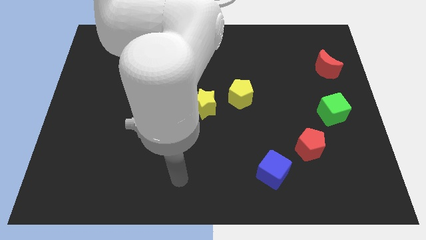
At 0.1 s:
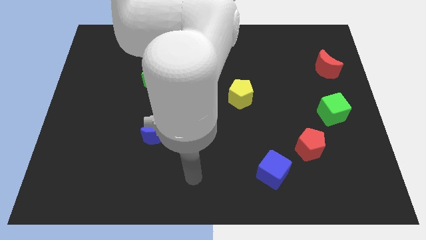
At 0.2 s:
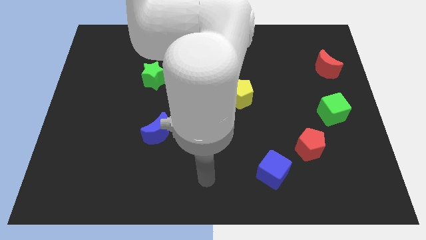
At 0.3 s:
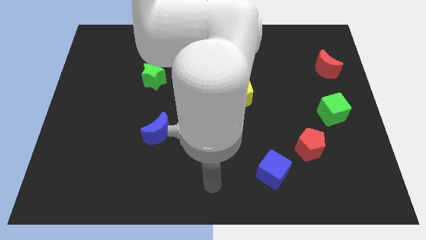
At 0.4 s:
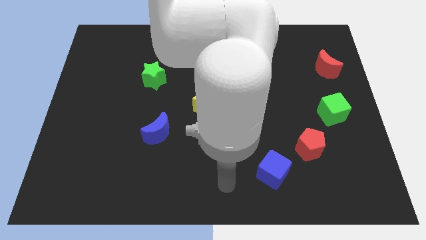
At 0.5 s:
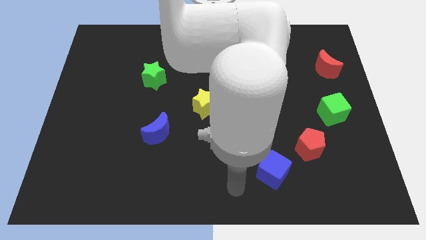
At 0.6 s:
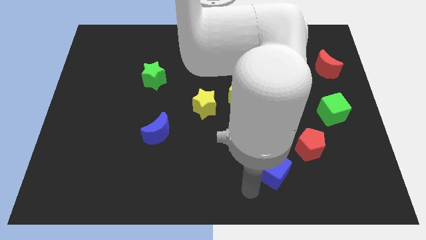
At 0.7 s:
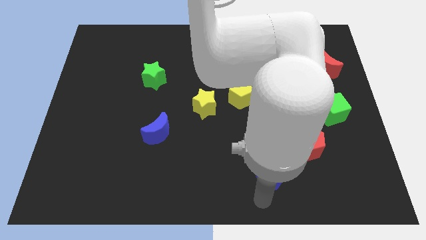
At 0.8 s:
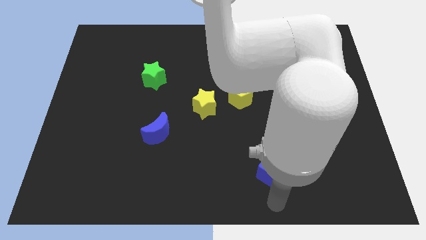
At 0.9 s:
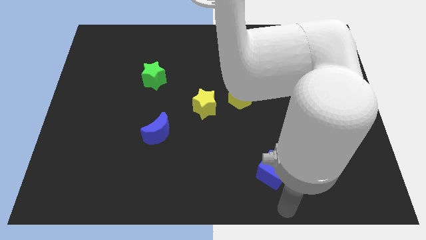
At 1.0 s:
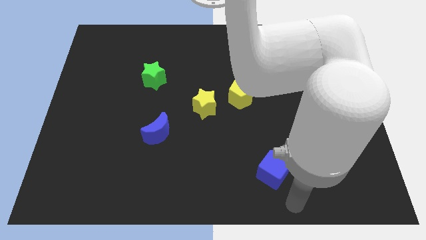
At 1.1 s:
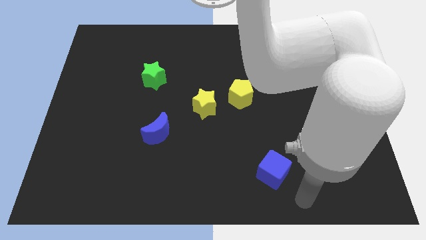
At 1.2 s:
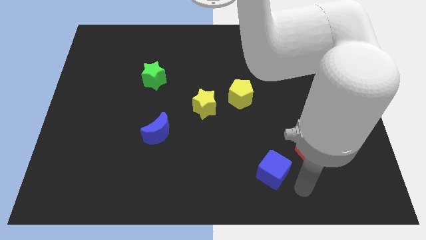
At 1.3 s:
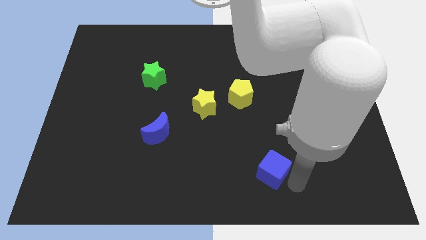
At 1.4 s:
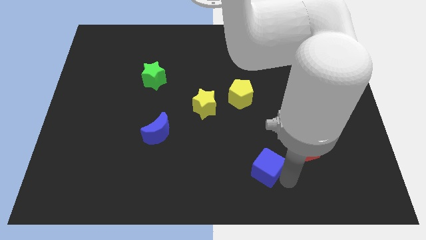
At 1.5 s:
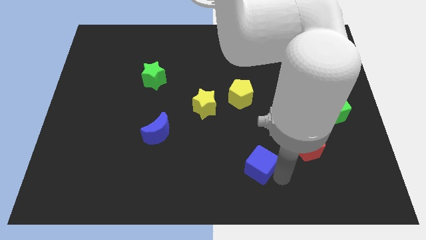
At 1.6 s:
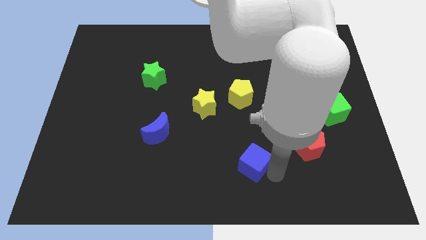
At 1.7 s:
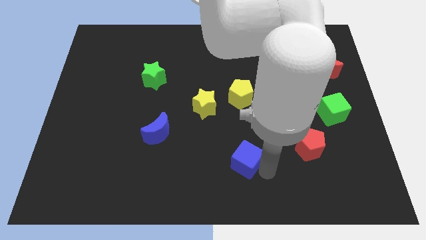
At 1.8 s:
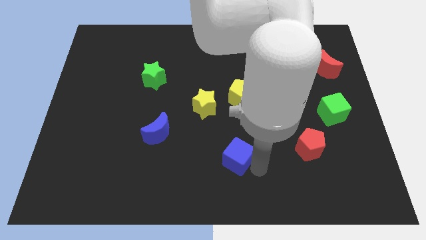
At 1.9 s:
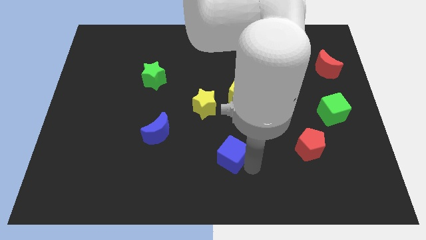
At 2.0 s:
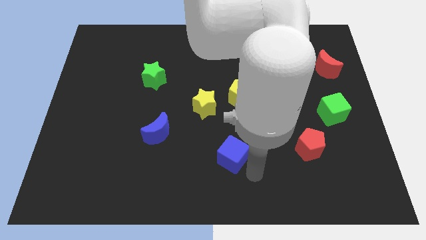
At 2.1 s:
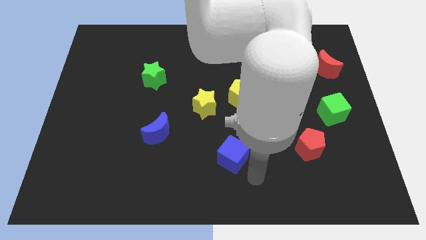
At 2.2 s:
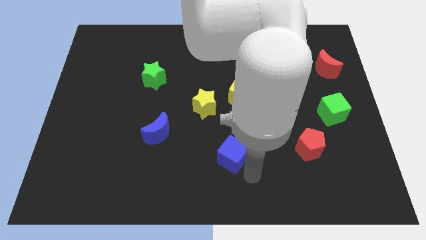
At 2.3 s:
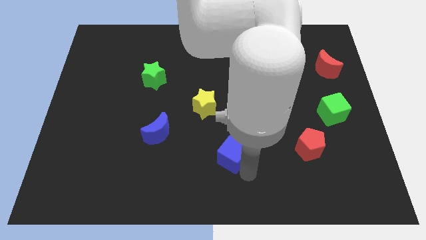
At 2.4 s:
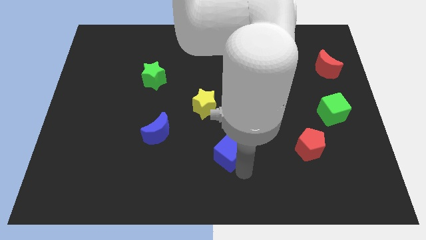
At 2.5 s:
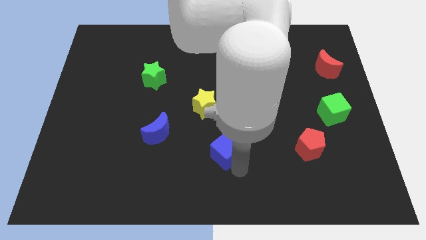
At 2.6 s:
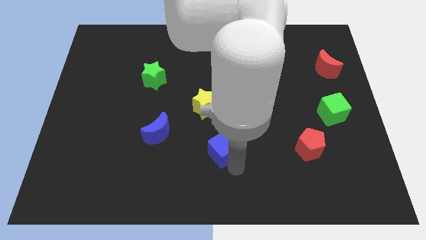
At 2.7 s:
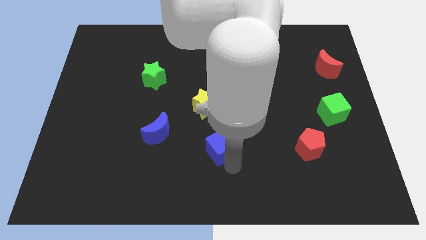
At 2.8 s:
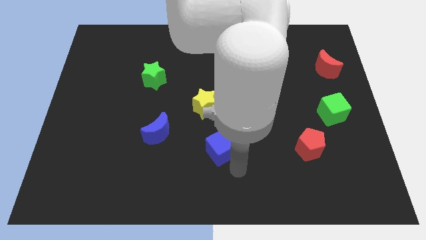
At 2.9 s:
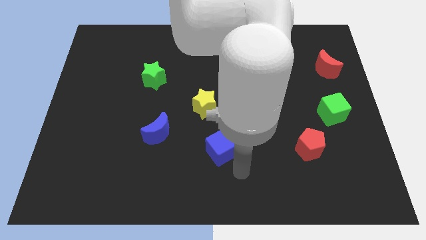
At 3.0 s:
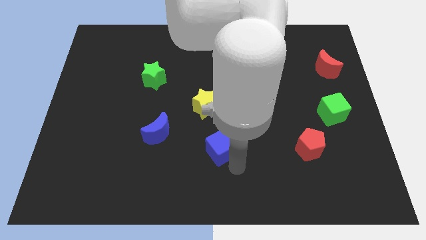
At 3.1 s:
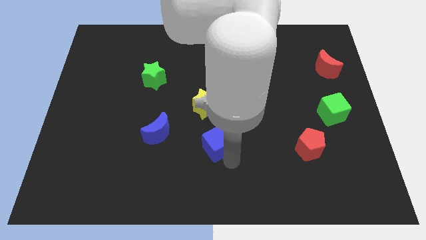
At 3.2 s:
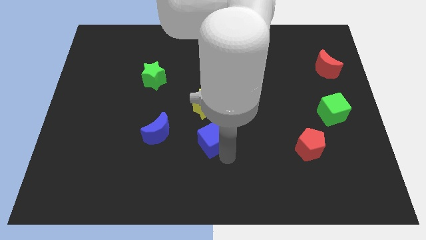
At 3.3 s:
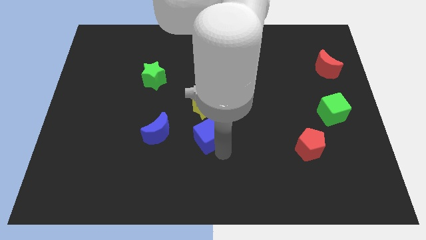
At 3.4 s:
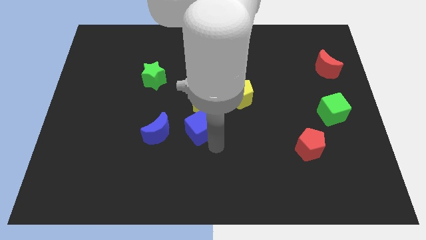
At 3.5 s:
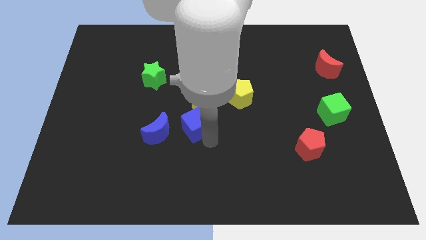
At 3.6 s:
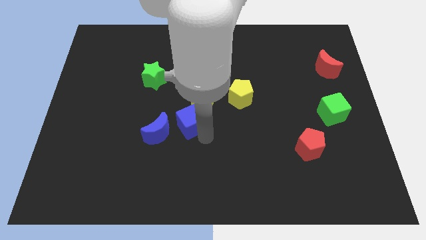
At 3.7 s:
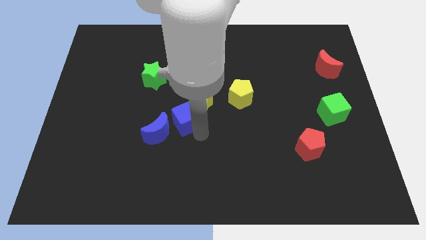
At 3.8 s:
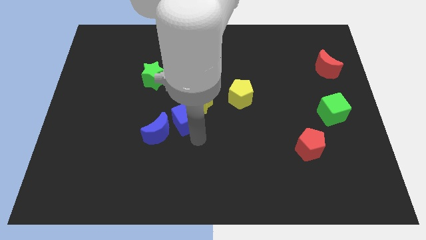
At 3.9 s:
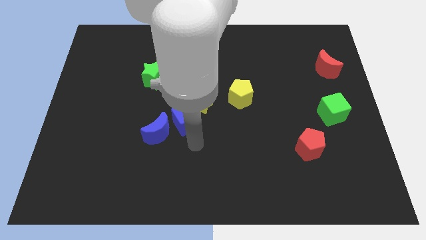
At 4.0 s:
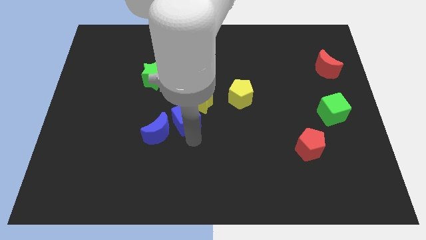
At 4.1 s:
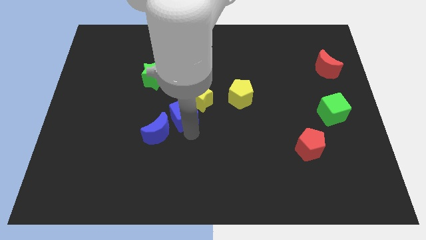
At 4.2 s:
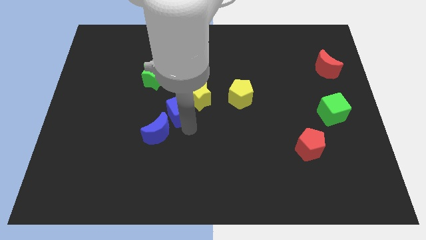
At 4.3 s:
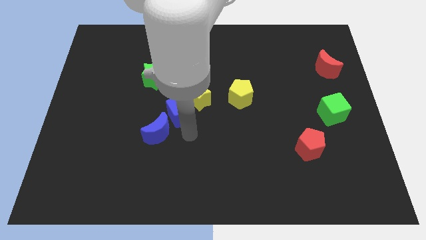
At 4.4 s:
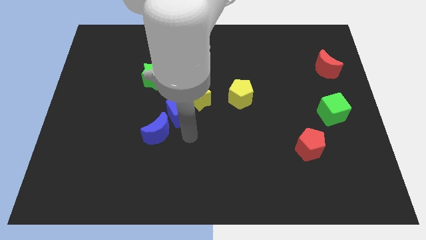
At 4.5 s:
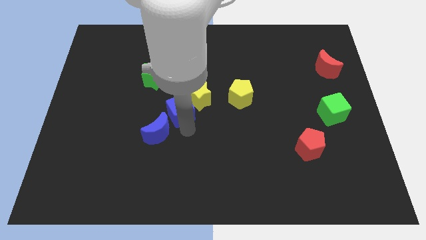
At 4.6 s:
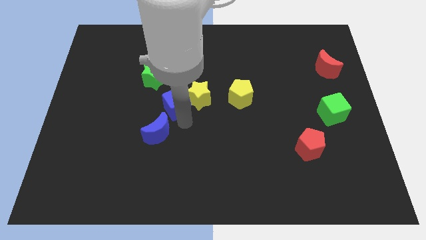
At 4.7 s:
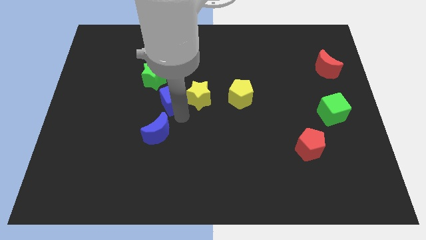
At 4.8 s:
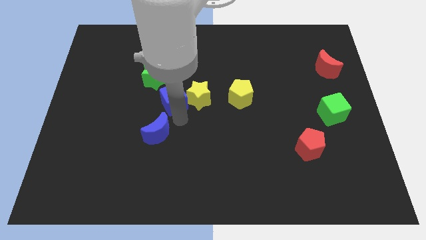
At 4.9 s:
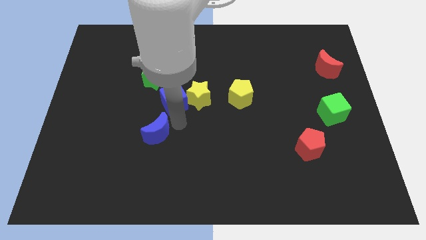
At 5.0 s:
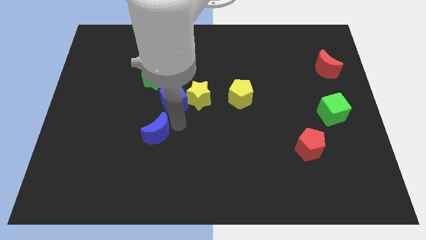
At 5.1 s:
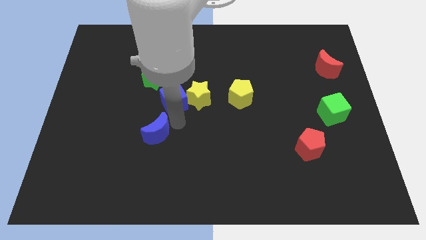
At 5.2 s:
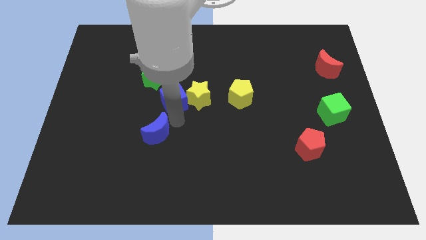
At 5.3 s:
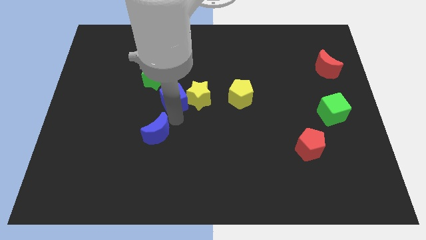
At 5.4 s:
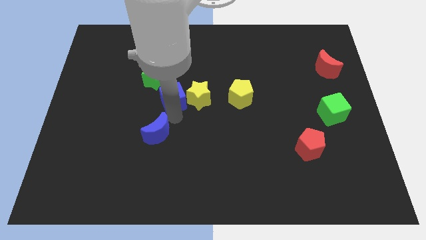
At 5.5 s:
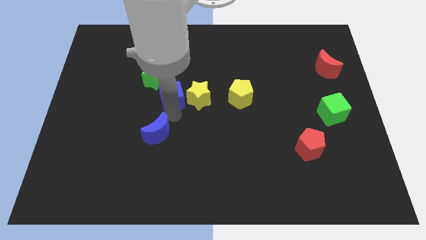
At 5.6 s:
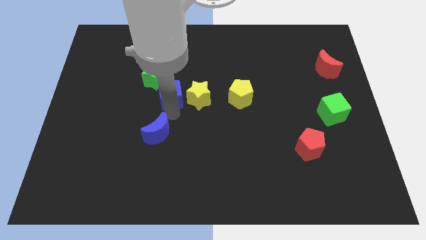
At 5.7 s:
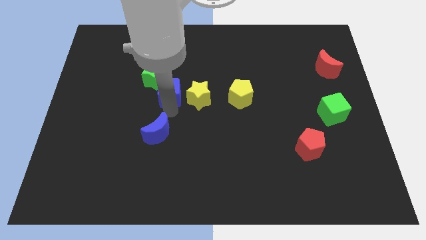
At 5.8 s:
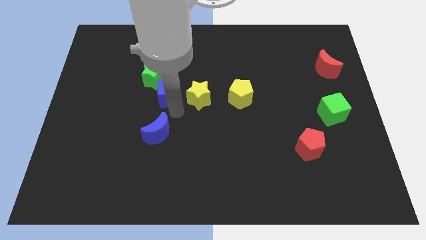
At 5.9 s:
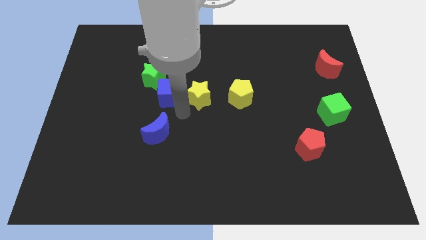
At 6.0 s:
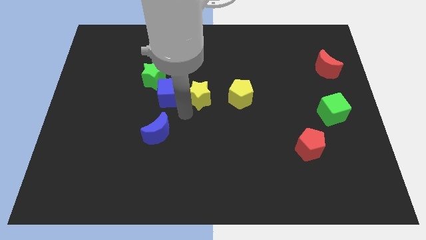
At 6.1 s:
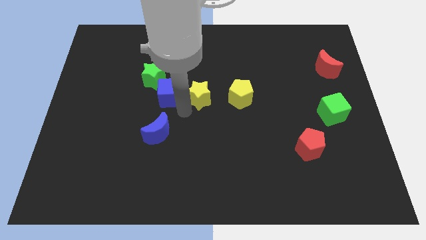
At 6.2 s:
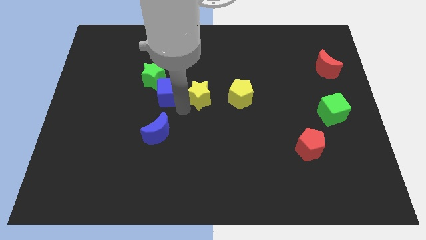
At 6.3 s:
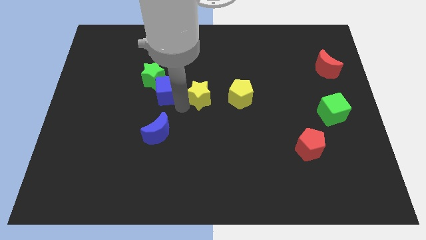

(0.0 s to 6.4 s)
move the blue cube to the green star

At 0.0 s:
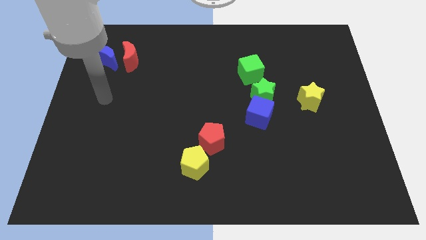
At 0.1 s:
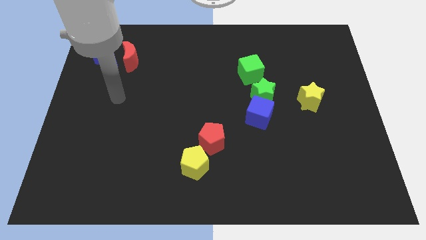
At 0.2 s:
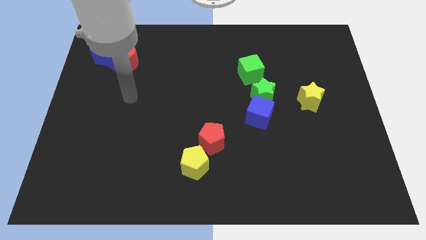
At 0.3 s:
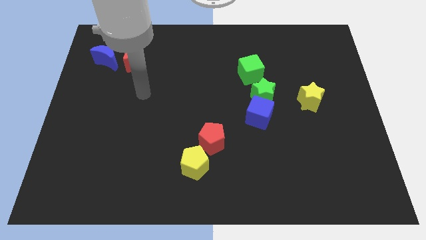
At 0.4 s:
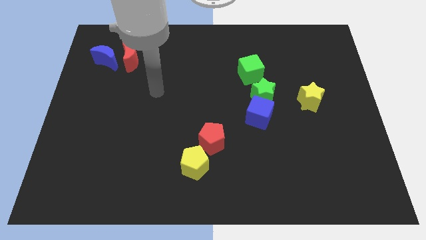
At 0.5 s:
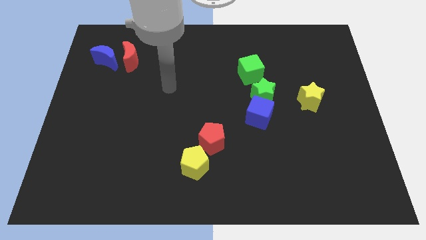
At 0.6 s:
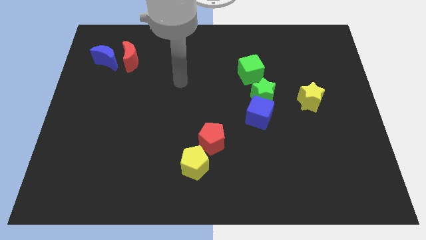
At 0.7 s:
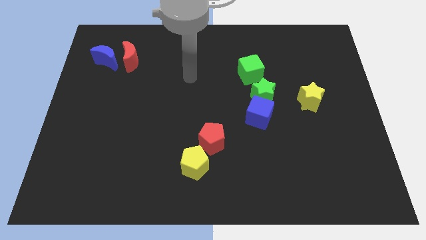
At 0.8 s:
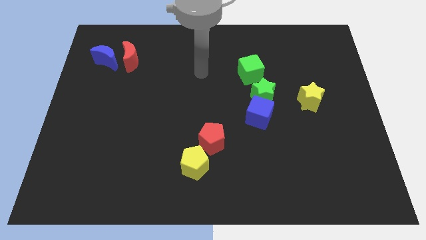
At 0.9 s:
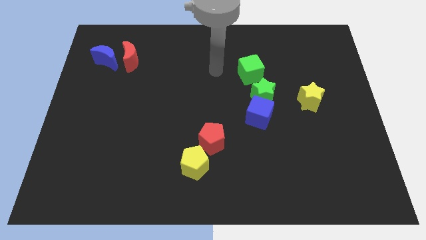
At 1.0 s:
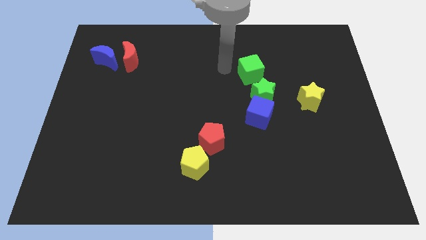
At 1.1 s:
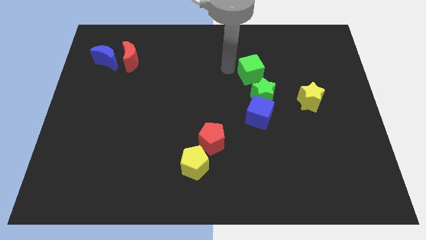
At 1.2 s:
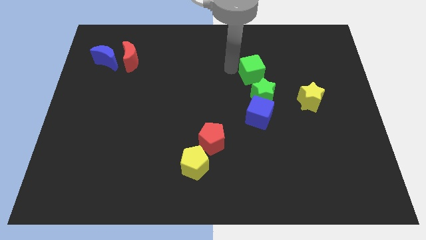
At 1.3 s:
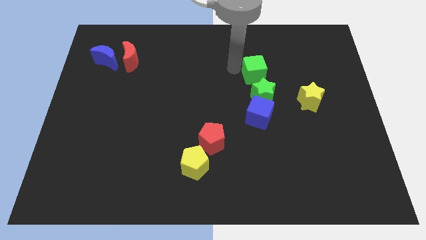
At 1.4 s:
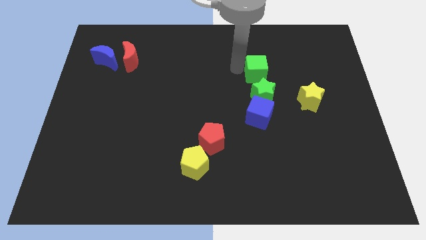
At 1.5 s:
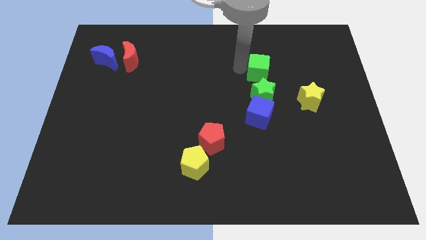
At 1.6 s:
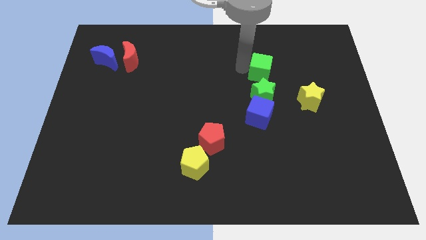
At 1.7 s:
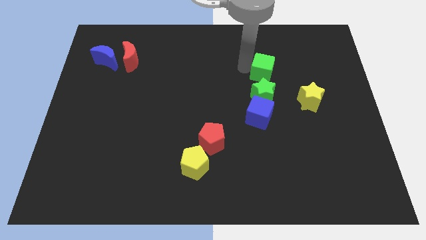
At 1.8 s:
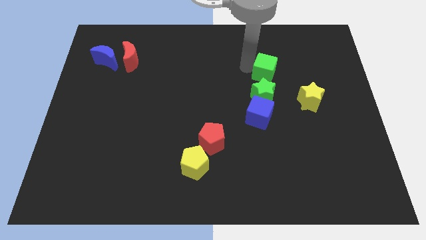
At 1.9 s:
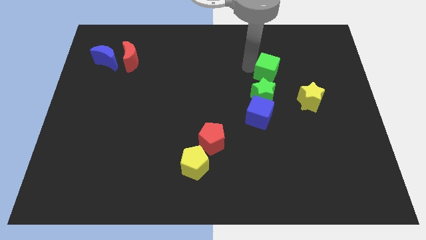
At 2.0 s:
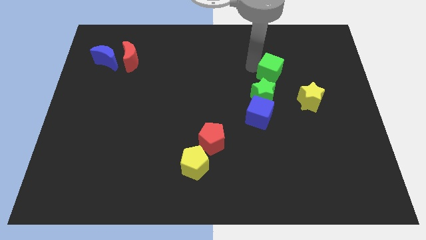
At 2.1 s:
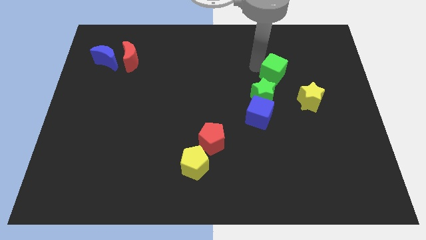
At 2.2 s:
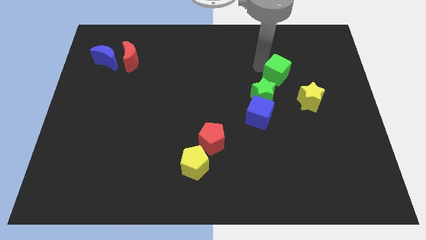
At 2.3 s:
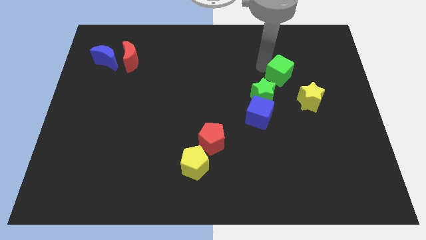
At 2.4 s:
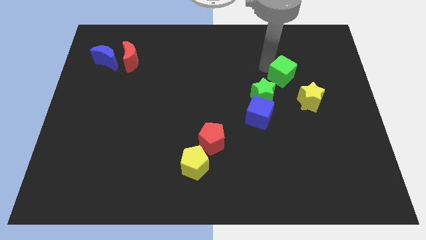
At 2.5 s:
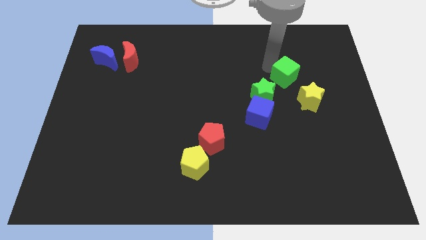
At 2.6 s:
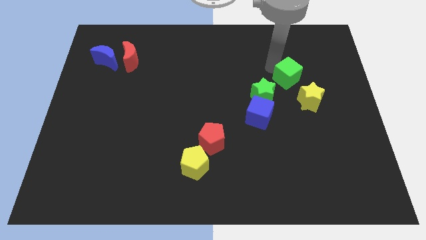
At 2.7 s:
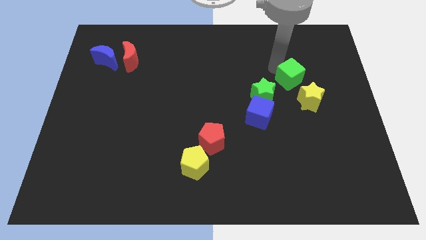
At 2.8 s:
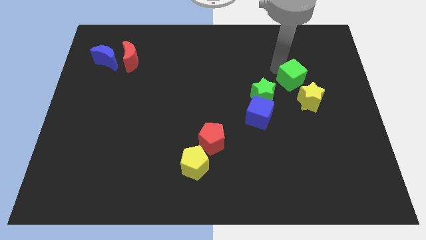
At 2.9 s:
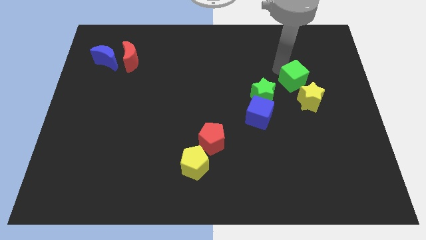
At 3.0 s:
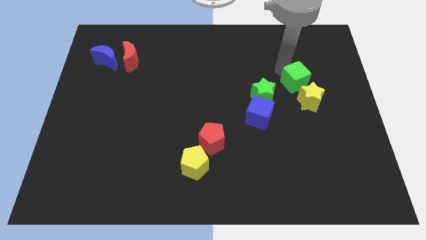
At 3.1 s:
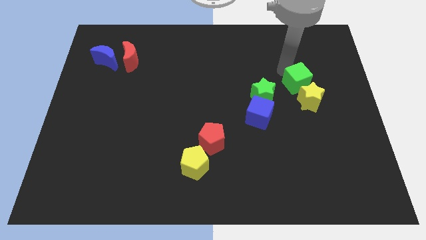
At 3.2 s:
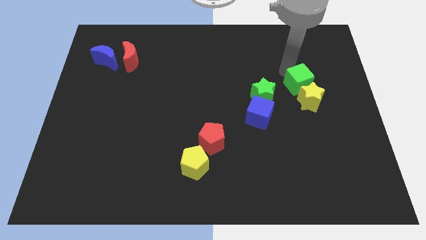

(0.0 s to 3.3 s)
put the green cube next to the yellow star
